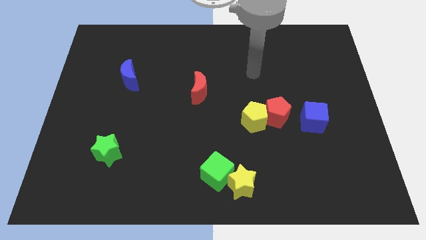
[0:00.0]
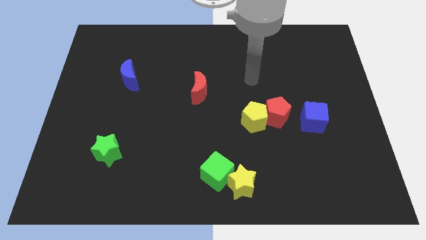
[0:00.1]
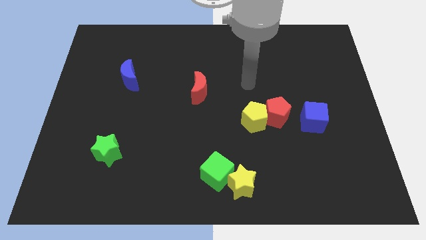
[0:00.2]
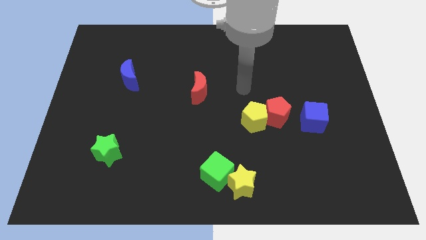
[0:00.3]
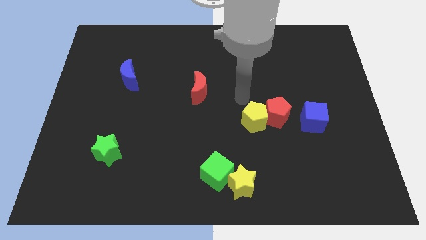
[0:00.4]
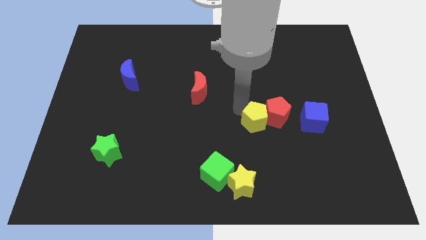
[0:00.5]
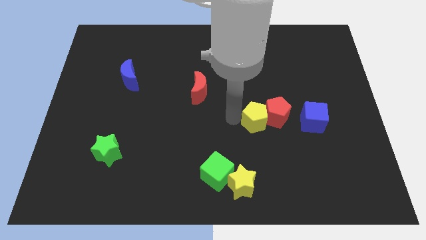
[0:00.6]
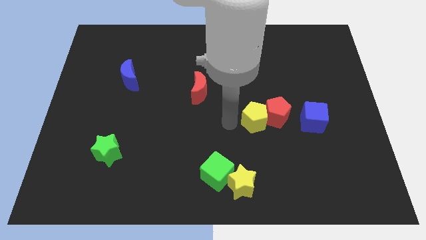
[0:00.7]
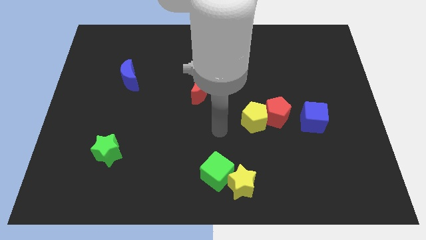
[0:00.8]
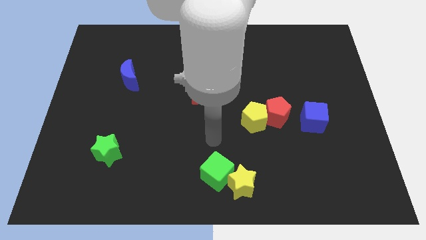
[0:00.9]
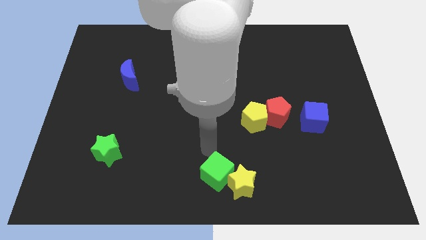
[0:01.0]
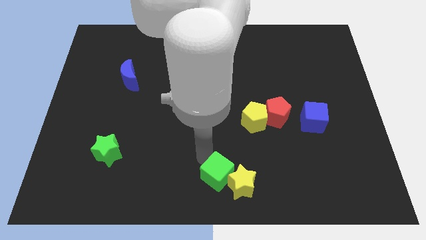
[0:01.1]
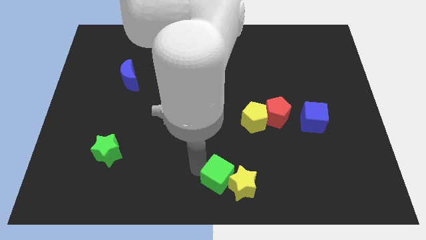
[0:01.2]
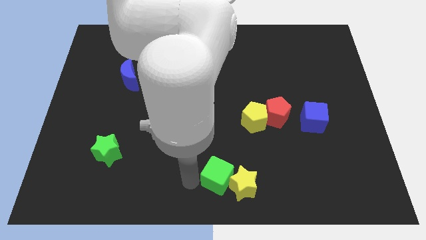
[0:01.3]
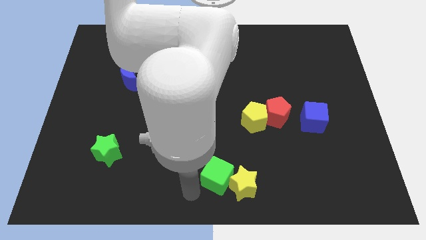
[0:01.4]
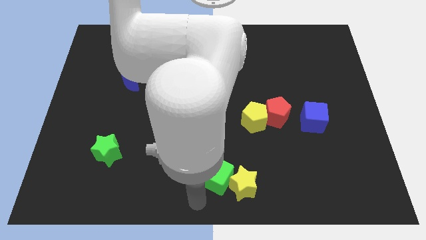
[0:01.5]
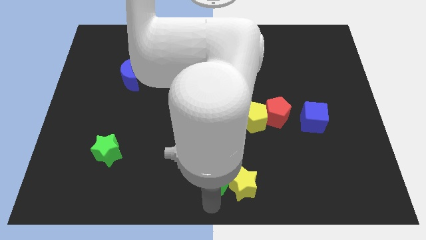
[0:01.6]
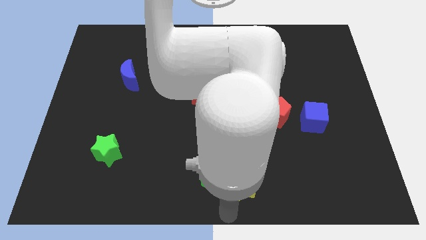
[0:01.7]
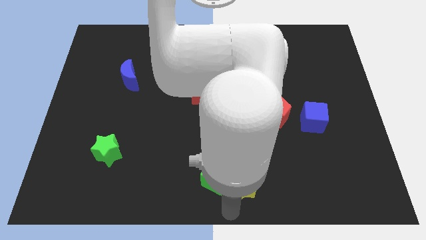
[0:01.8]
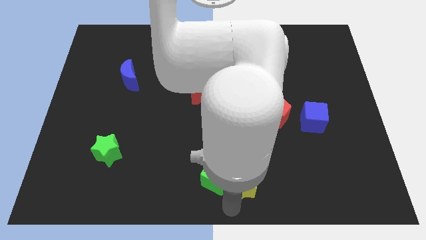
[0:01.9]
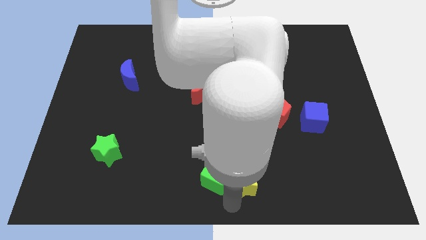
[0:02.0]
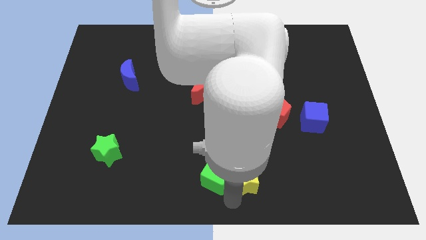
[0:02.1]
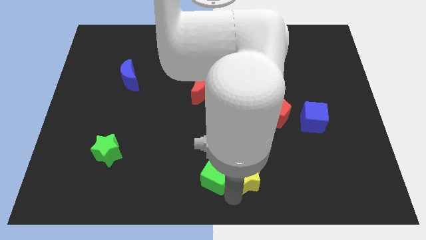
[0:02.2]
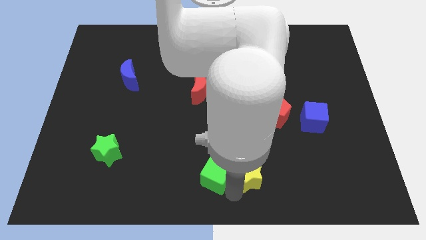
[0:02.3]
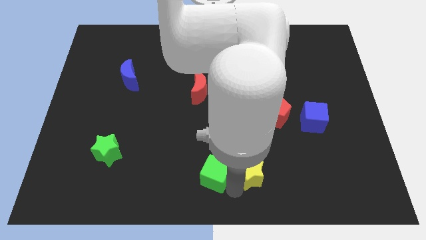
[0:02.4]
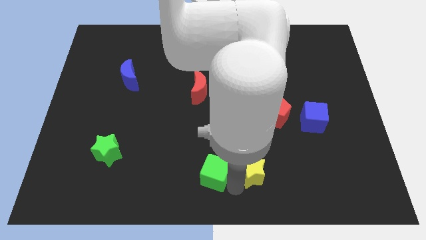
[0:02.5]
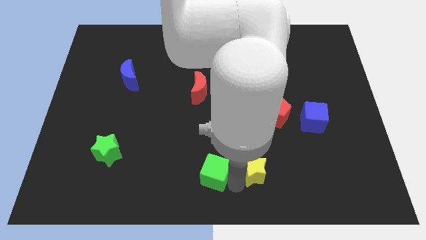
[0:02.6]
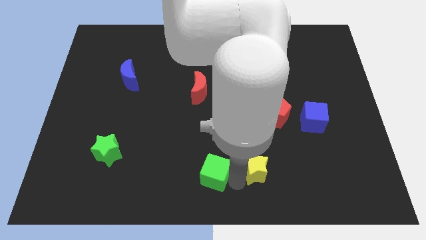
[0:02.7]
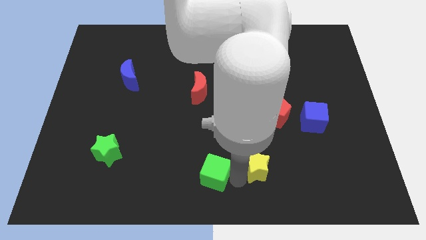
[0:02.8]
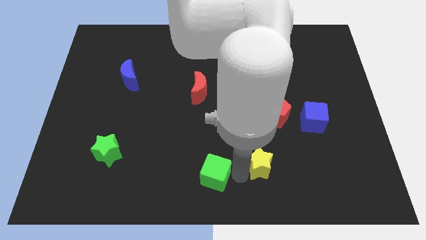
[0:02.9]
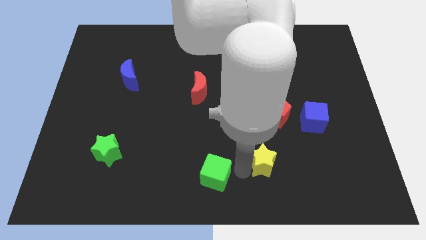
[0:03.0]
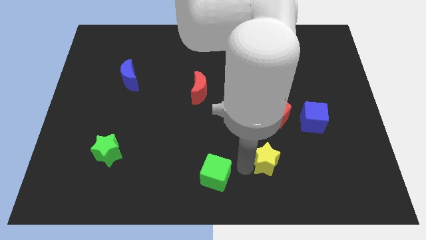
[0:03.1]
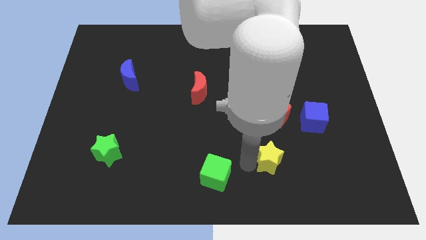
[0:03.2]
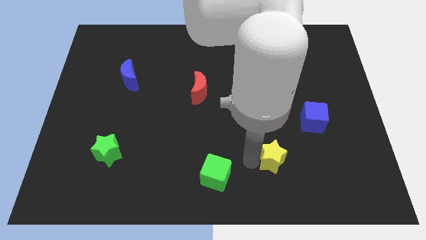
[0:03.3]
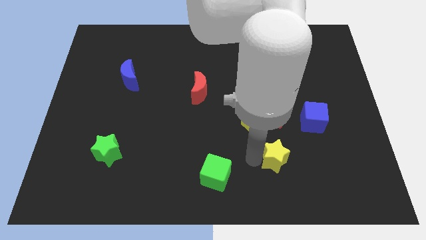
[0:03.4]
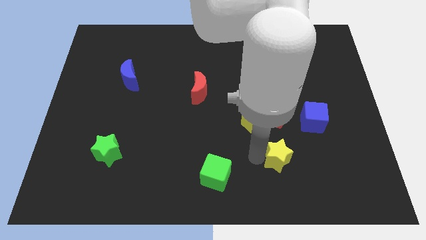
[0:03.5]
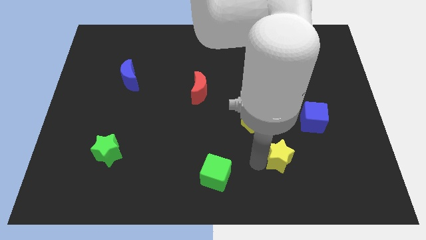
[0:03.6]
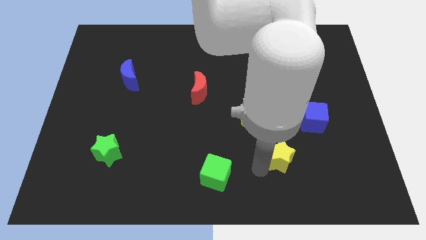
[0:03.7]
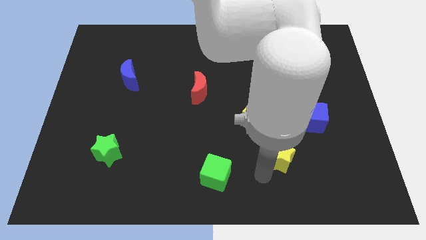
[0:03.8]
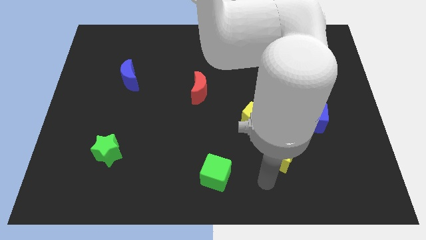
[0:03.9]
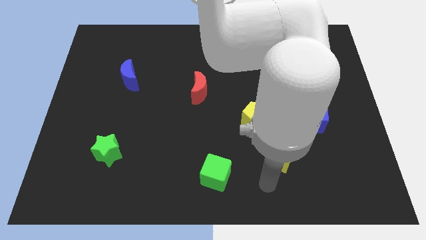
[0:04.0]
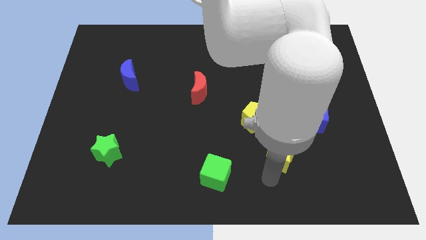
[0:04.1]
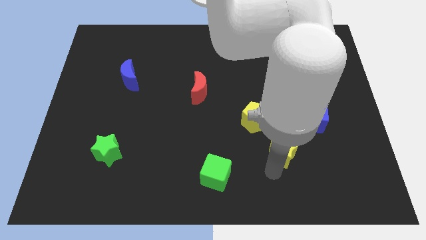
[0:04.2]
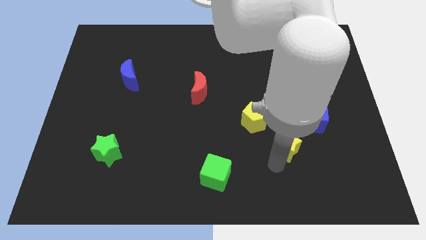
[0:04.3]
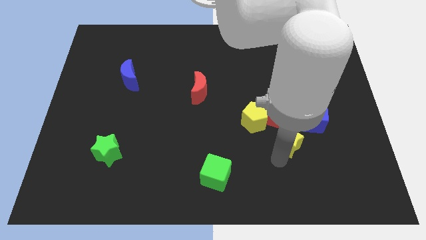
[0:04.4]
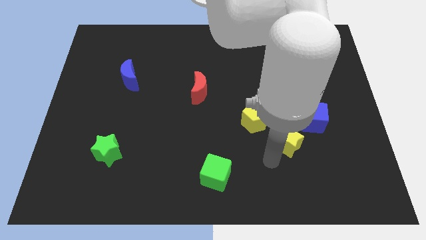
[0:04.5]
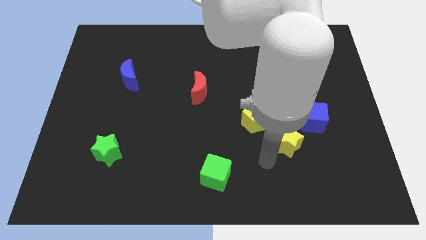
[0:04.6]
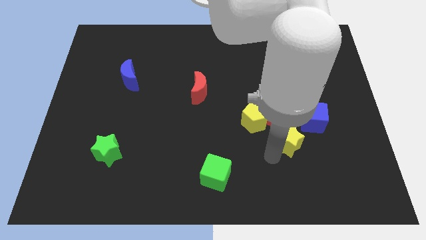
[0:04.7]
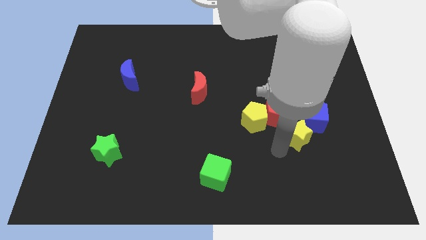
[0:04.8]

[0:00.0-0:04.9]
move the yellow star next to the blue cube

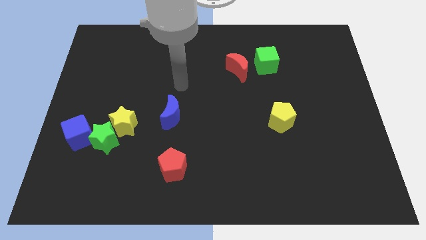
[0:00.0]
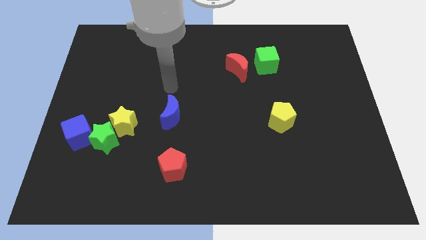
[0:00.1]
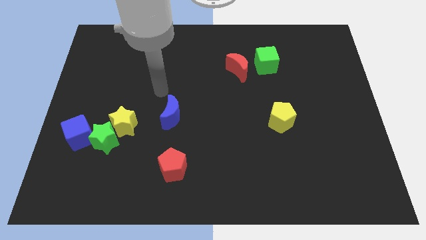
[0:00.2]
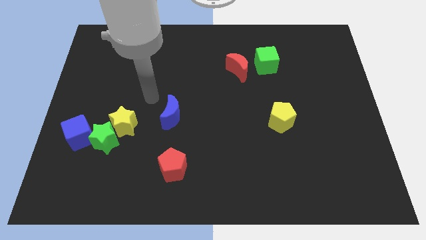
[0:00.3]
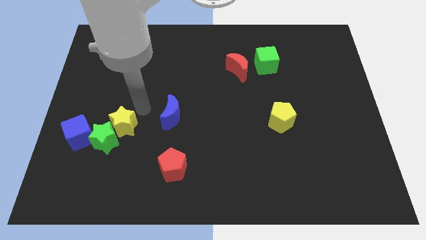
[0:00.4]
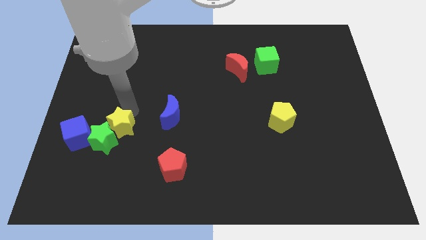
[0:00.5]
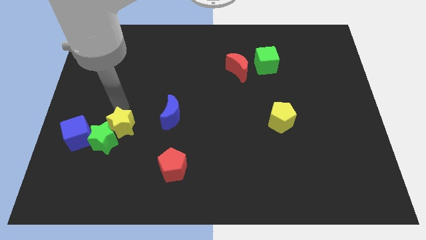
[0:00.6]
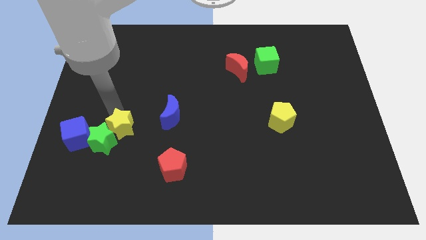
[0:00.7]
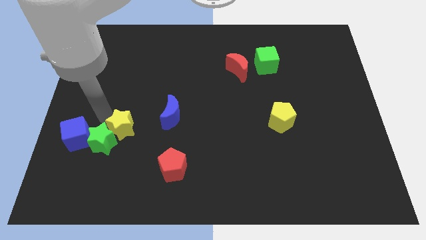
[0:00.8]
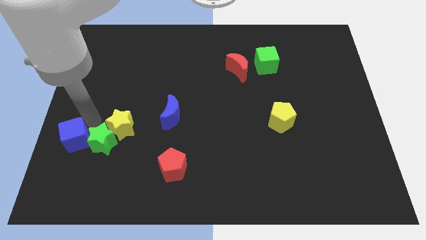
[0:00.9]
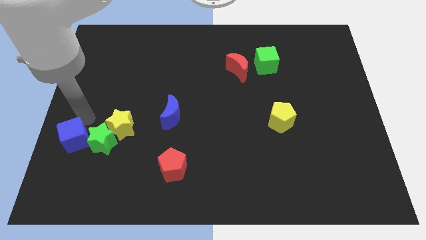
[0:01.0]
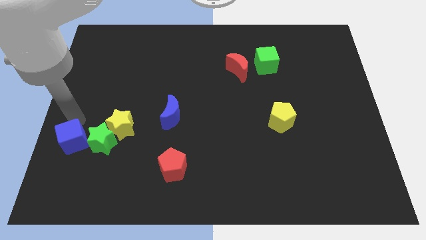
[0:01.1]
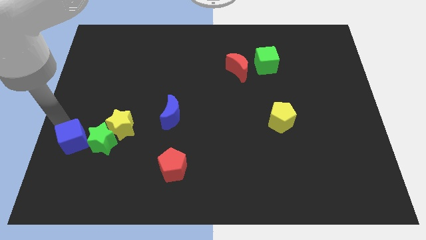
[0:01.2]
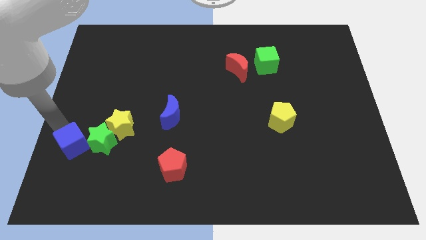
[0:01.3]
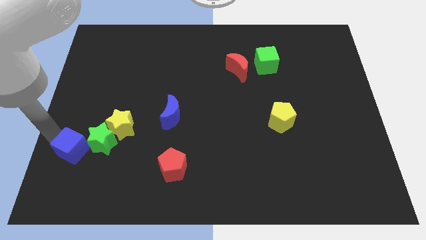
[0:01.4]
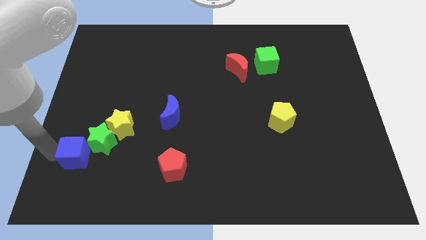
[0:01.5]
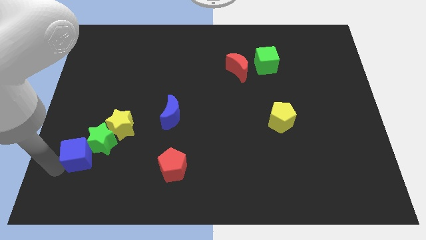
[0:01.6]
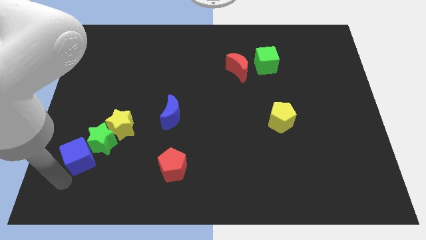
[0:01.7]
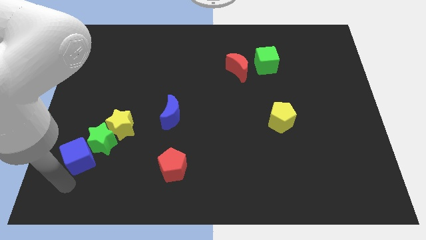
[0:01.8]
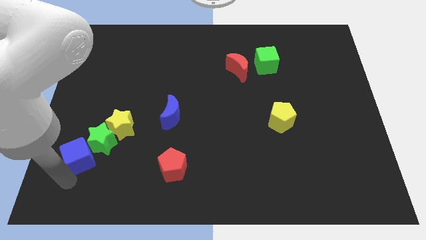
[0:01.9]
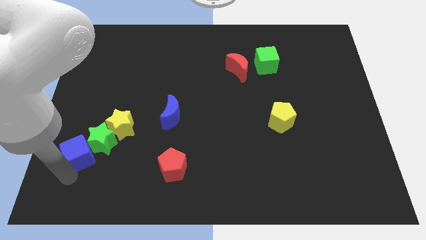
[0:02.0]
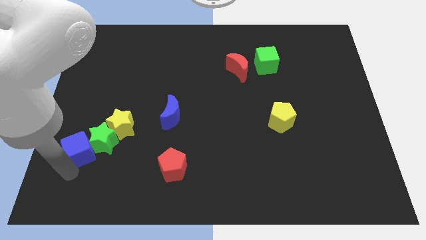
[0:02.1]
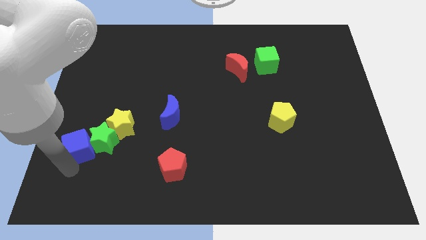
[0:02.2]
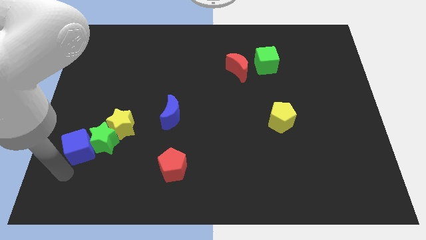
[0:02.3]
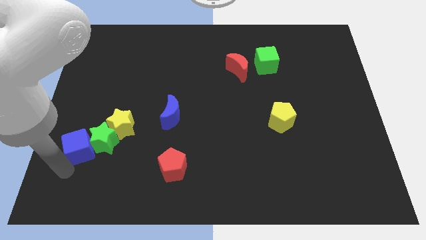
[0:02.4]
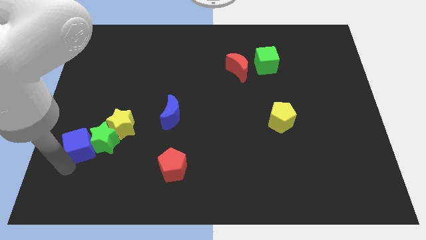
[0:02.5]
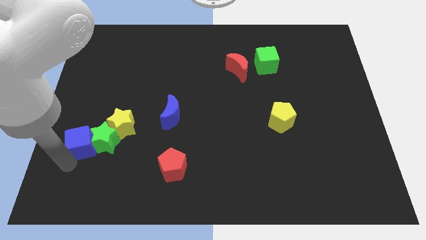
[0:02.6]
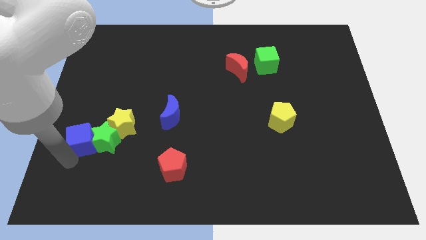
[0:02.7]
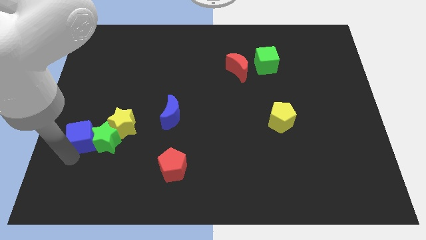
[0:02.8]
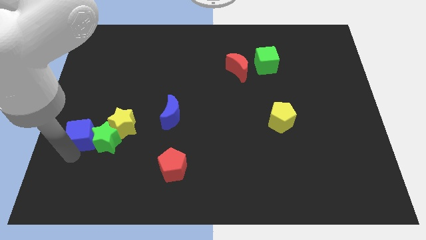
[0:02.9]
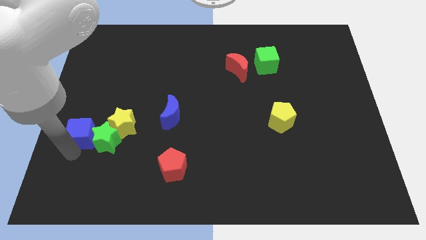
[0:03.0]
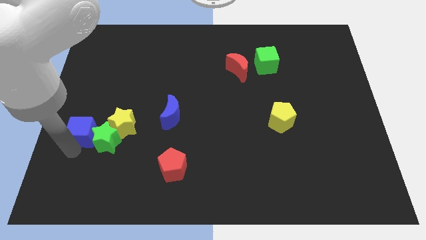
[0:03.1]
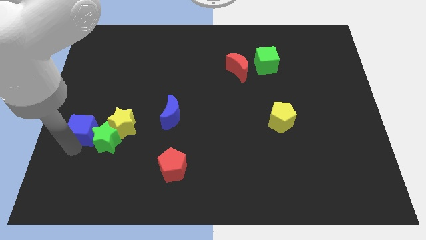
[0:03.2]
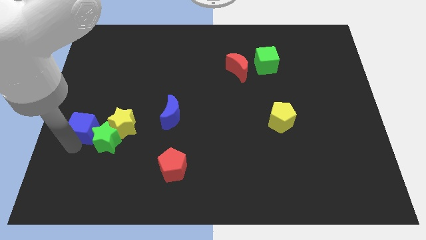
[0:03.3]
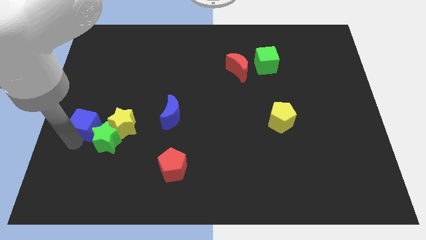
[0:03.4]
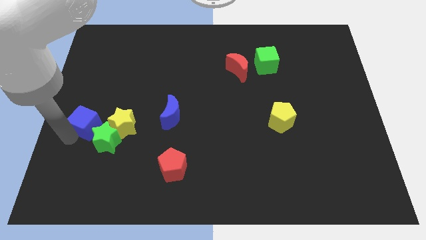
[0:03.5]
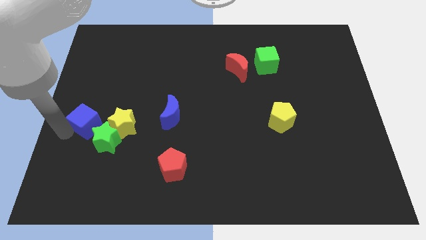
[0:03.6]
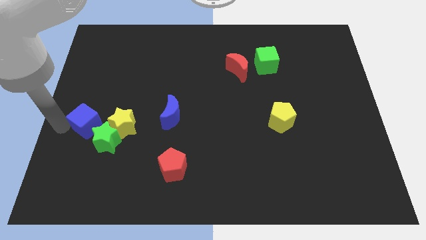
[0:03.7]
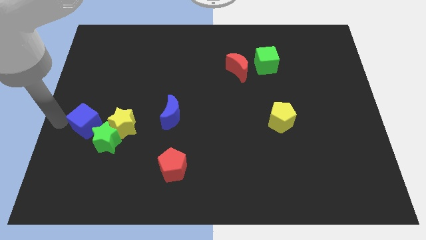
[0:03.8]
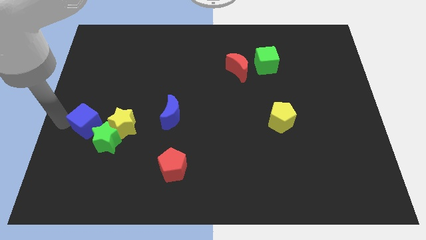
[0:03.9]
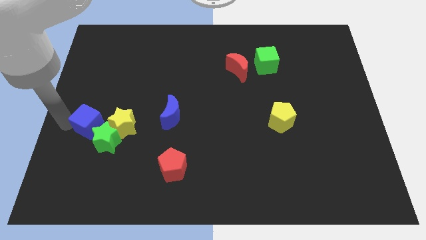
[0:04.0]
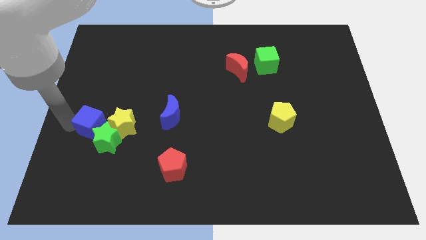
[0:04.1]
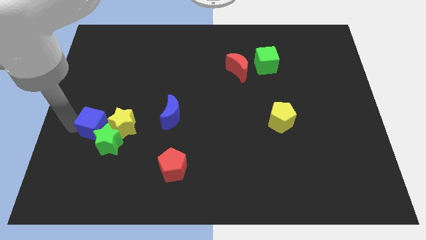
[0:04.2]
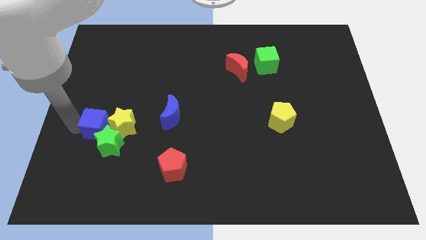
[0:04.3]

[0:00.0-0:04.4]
push the blue cube close to the yellow star
